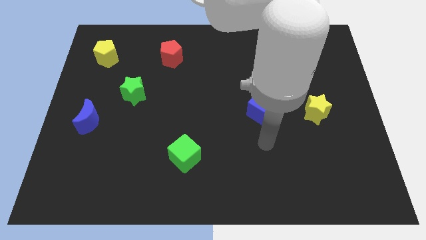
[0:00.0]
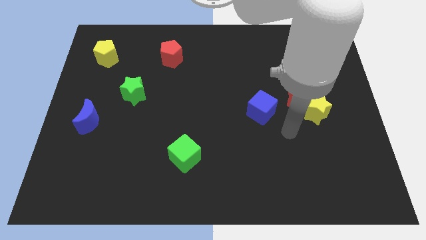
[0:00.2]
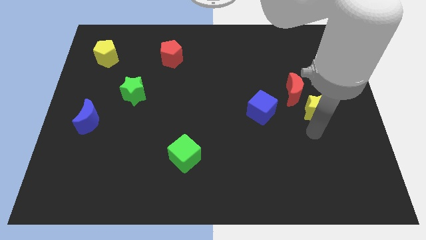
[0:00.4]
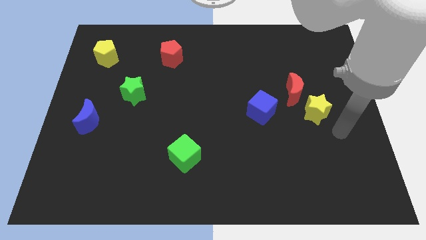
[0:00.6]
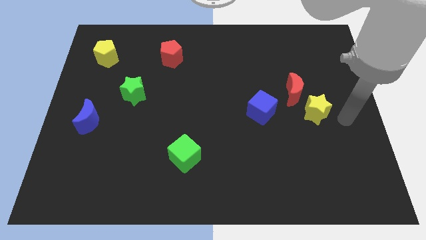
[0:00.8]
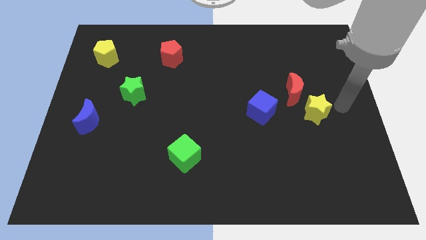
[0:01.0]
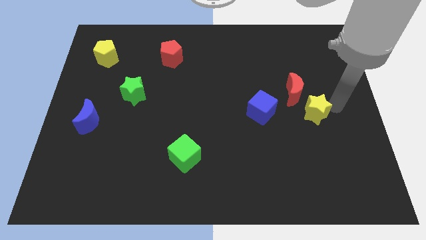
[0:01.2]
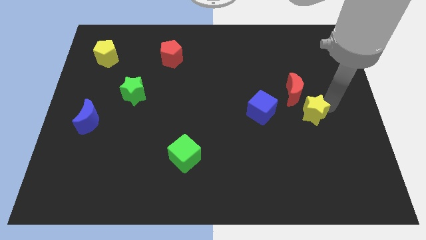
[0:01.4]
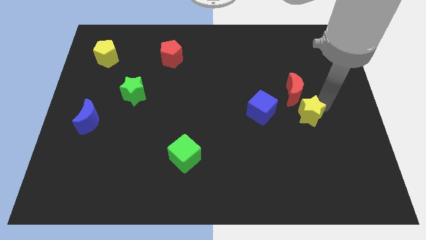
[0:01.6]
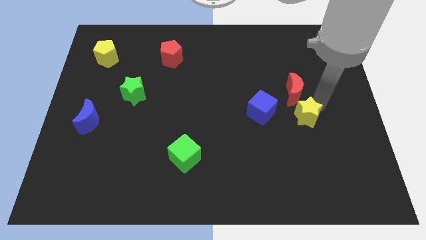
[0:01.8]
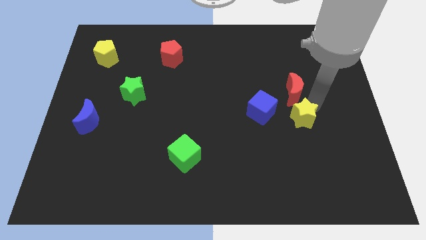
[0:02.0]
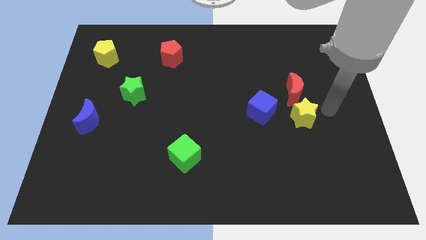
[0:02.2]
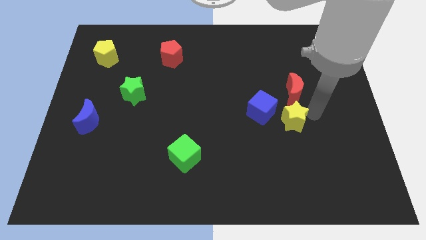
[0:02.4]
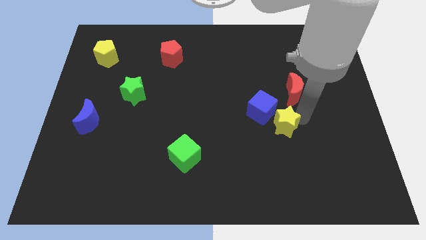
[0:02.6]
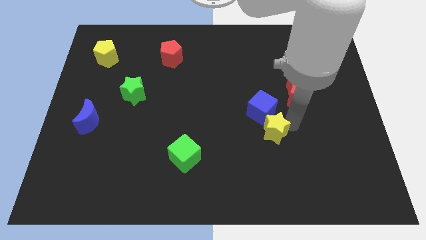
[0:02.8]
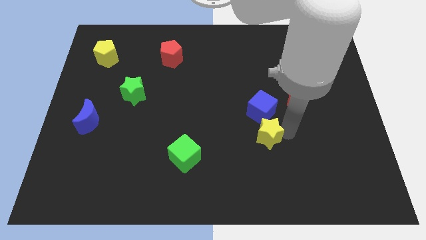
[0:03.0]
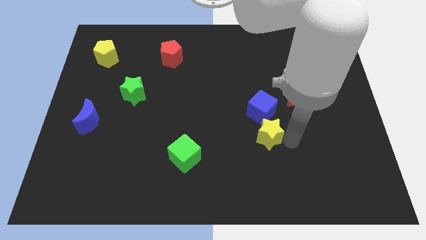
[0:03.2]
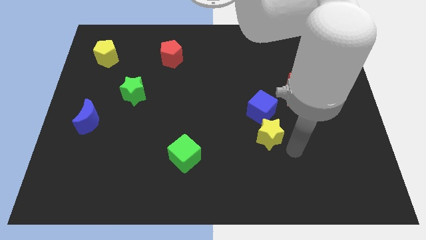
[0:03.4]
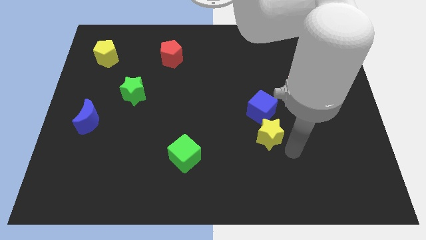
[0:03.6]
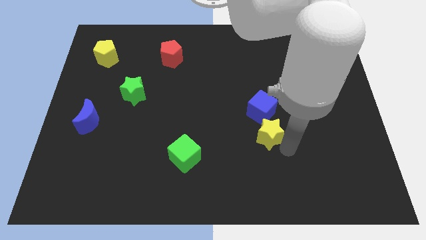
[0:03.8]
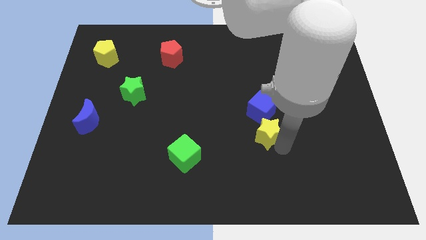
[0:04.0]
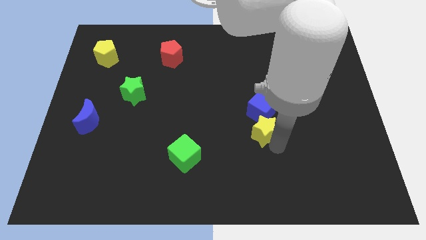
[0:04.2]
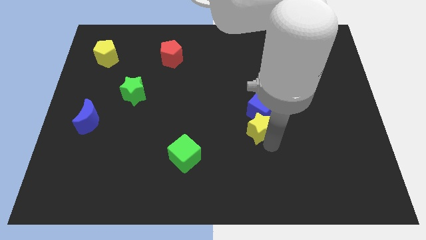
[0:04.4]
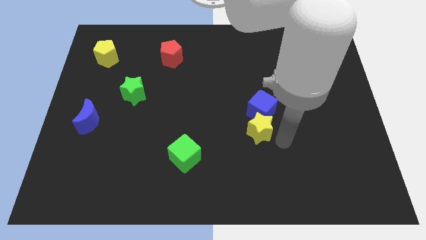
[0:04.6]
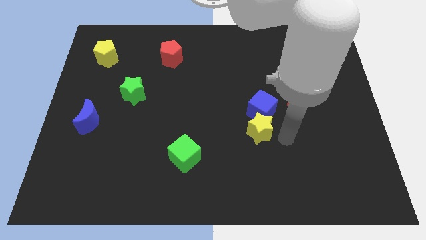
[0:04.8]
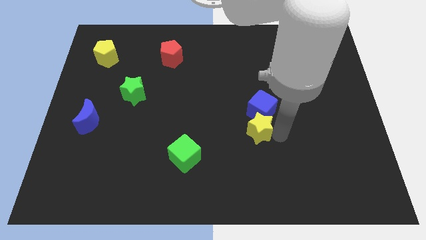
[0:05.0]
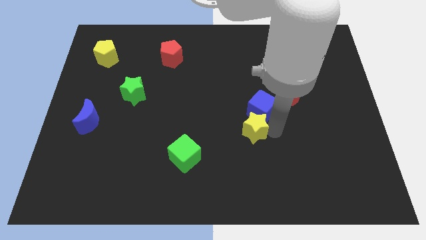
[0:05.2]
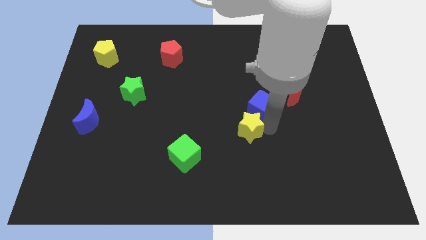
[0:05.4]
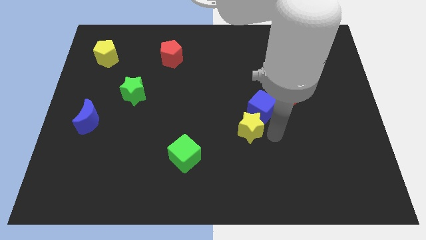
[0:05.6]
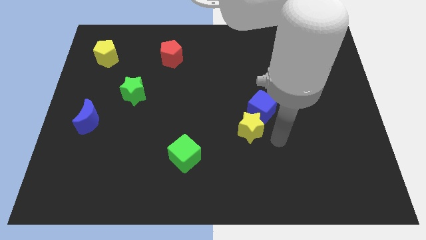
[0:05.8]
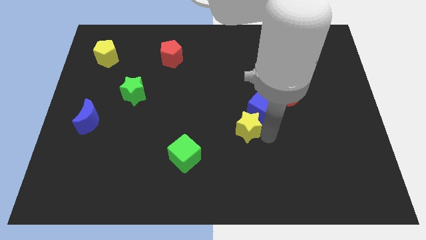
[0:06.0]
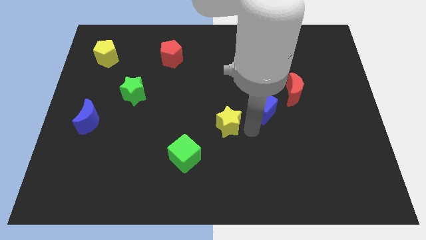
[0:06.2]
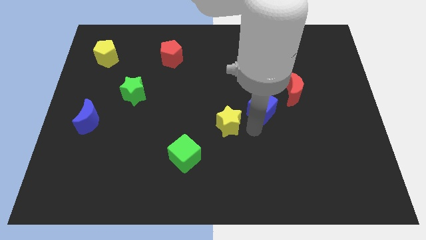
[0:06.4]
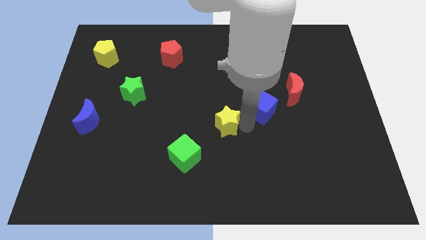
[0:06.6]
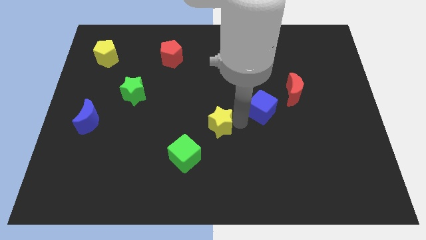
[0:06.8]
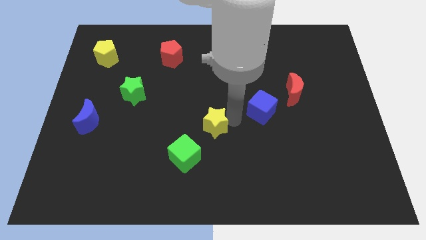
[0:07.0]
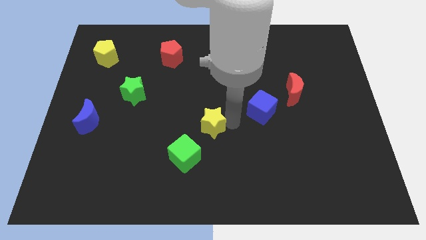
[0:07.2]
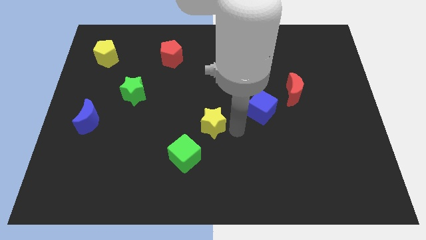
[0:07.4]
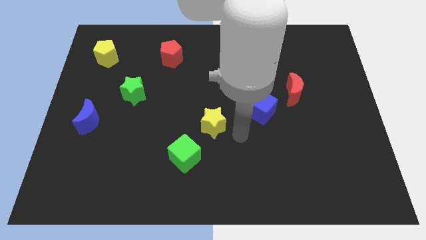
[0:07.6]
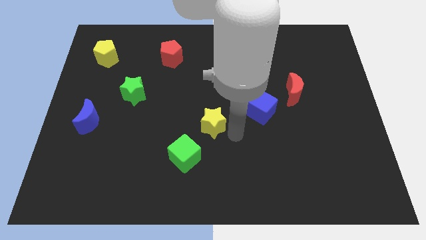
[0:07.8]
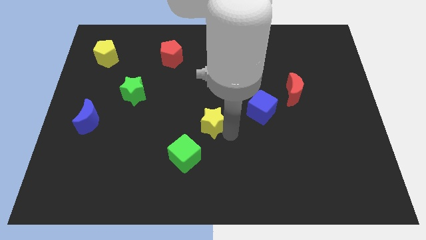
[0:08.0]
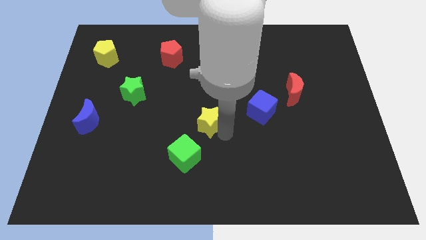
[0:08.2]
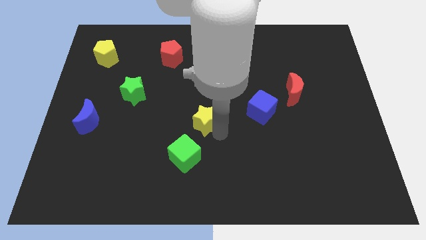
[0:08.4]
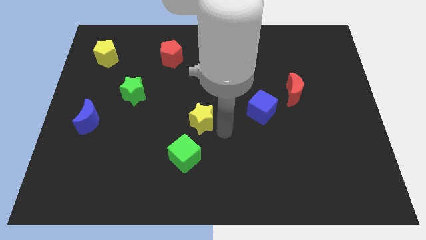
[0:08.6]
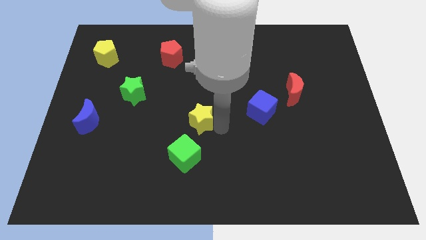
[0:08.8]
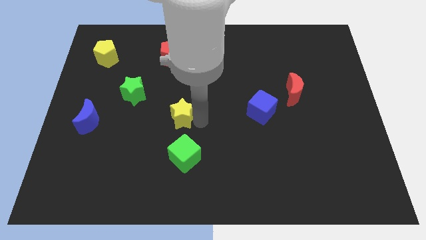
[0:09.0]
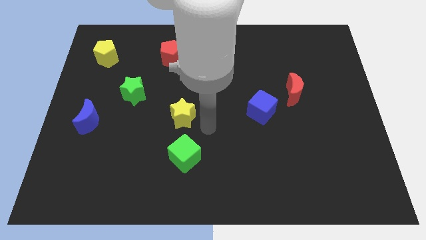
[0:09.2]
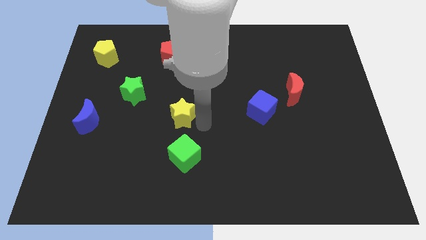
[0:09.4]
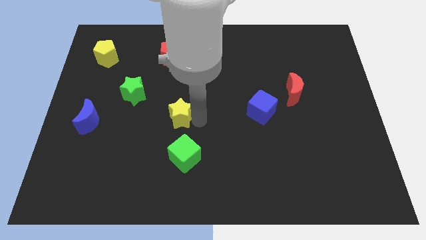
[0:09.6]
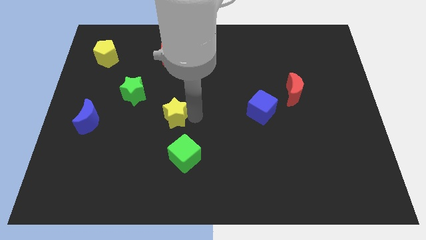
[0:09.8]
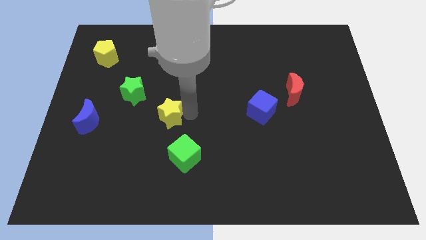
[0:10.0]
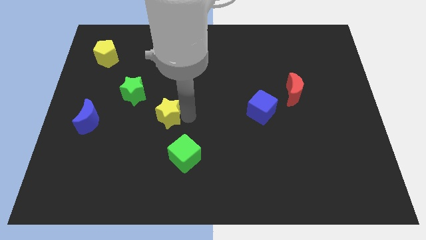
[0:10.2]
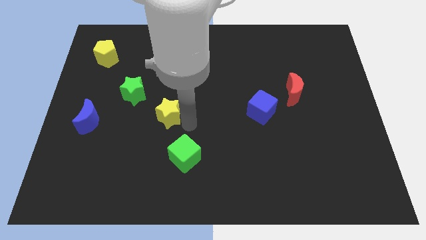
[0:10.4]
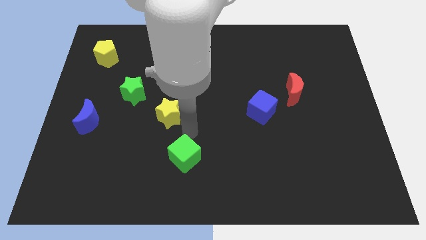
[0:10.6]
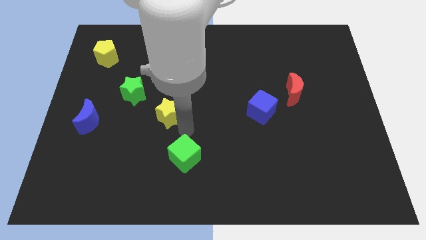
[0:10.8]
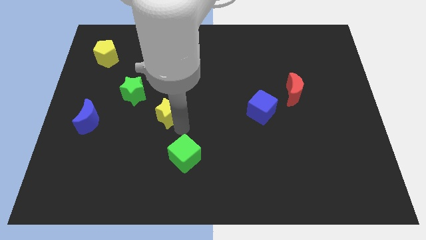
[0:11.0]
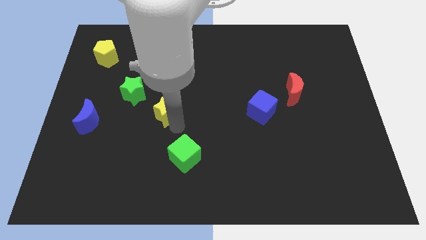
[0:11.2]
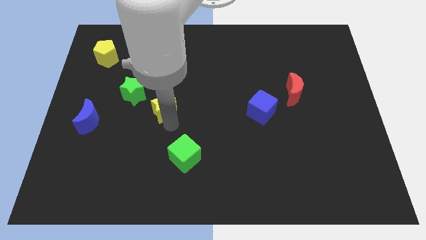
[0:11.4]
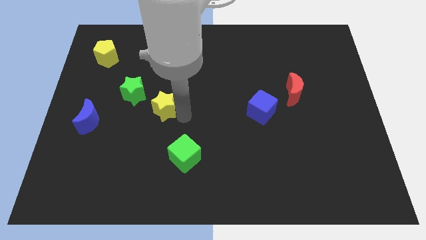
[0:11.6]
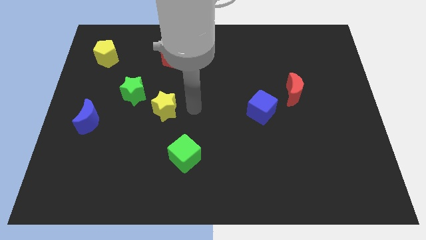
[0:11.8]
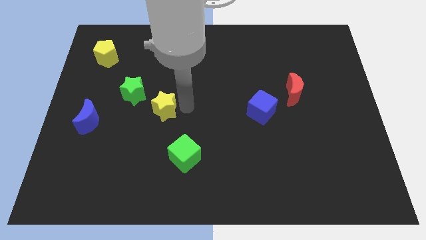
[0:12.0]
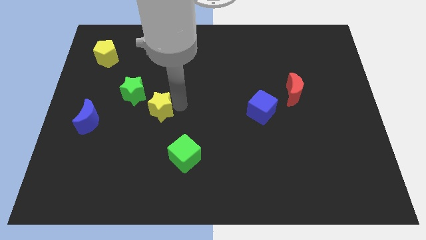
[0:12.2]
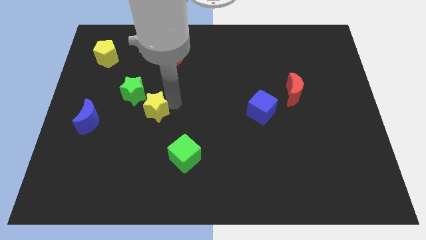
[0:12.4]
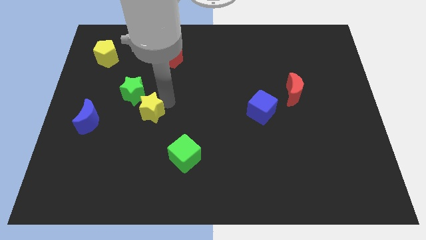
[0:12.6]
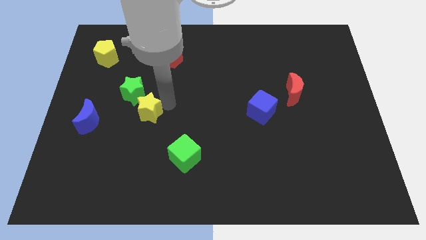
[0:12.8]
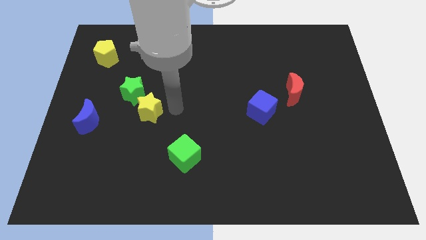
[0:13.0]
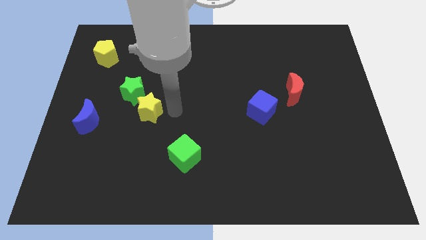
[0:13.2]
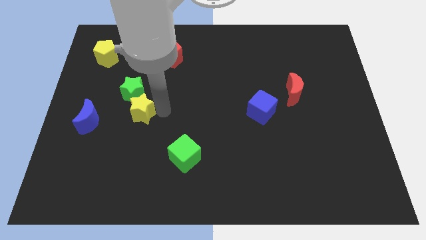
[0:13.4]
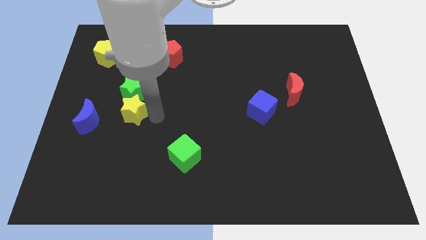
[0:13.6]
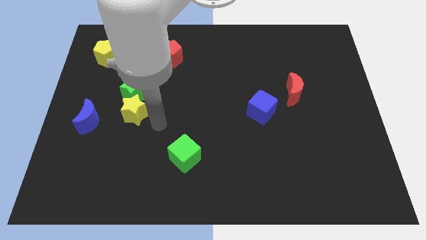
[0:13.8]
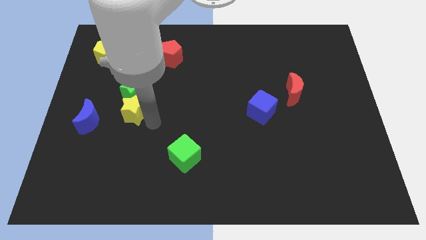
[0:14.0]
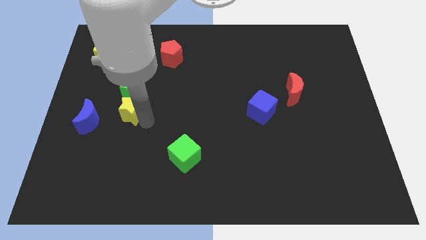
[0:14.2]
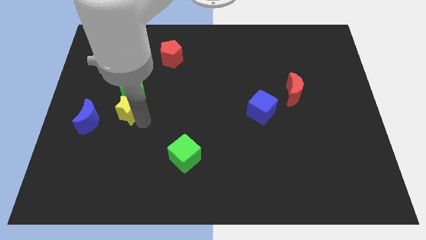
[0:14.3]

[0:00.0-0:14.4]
move the yellow star to the top right of the blue moon
